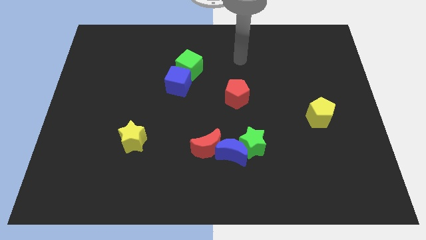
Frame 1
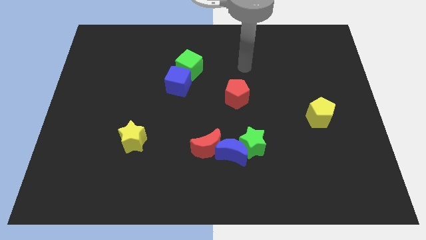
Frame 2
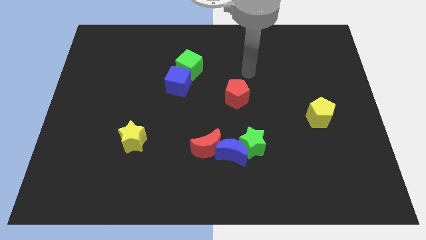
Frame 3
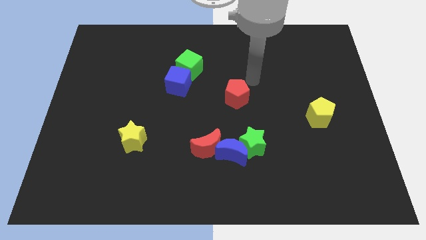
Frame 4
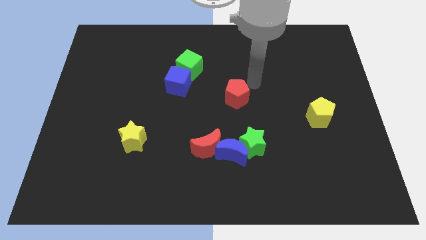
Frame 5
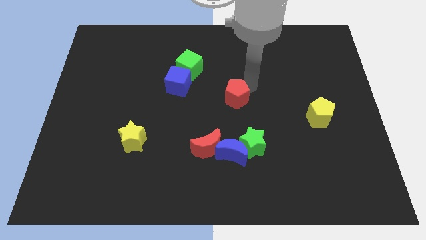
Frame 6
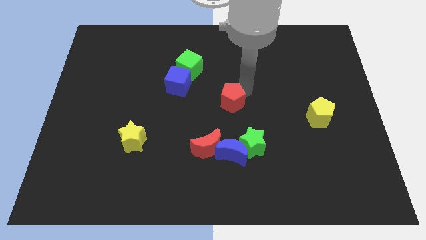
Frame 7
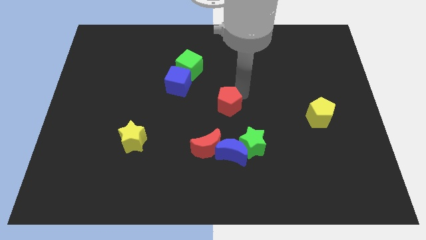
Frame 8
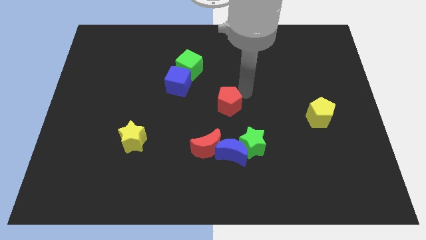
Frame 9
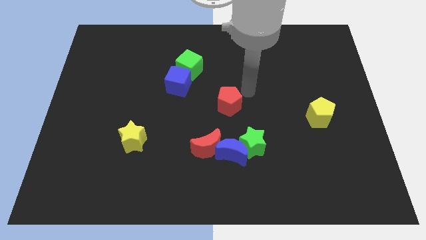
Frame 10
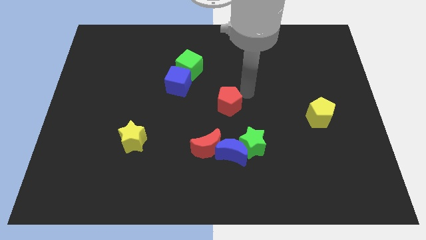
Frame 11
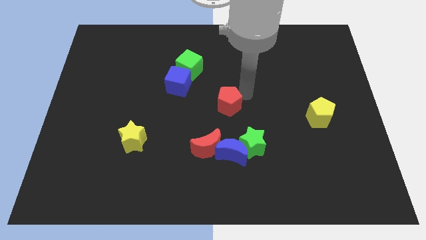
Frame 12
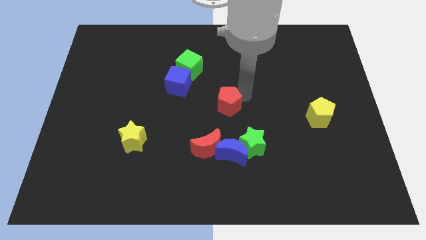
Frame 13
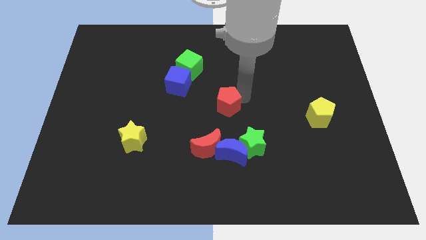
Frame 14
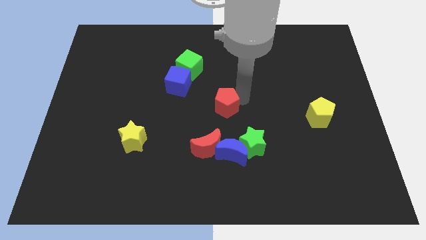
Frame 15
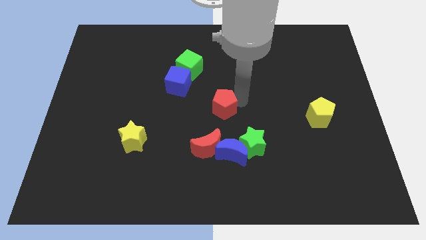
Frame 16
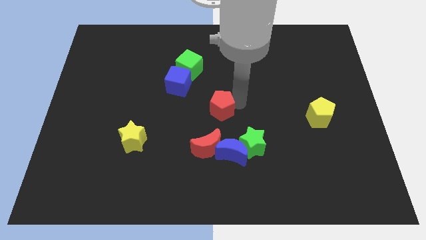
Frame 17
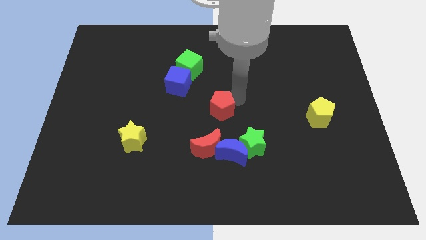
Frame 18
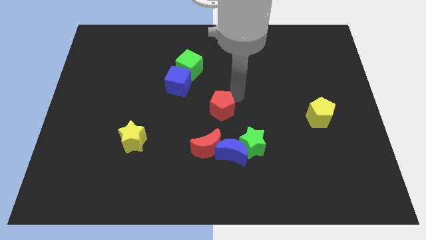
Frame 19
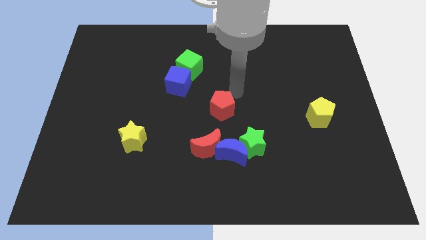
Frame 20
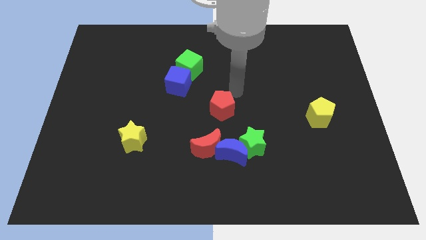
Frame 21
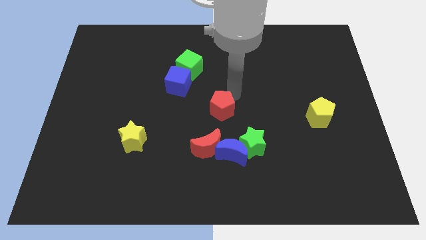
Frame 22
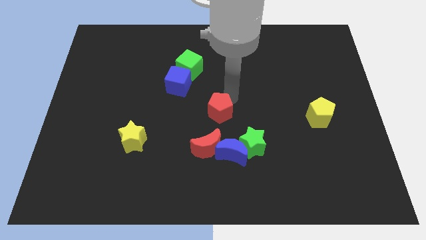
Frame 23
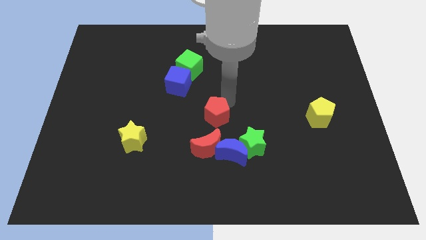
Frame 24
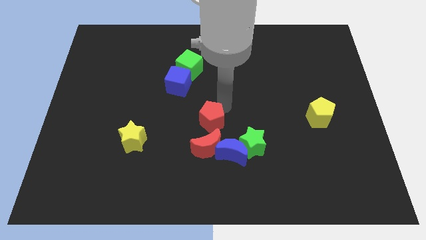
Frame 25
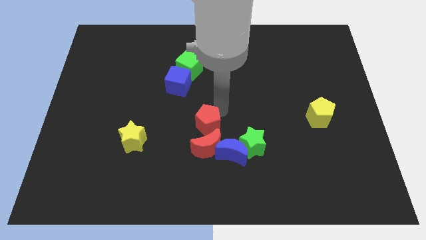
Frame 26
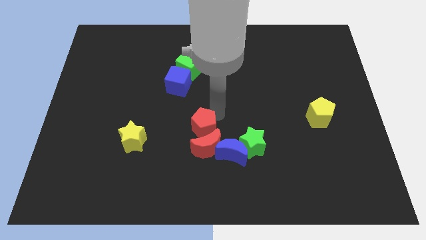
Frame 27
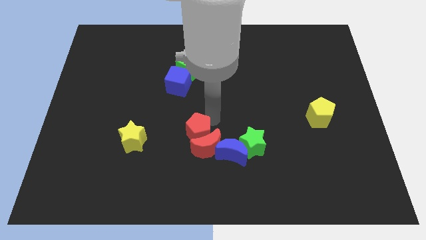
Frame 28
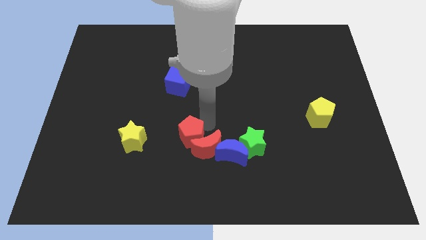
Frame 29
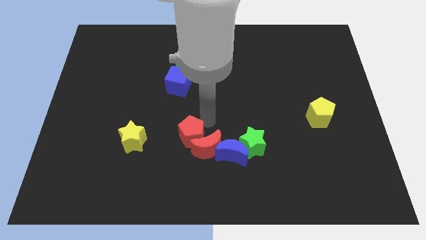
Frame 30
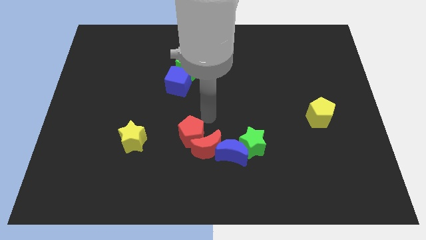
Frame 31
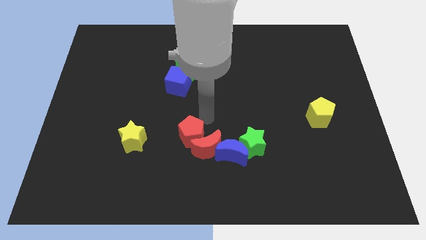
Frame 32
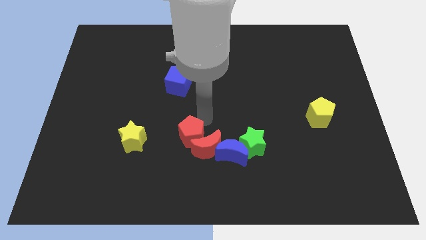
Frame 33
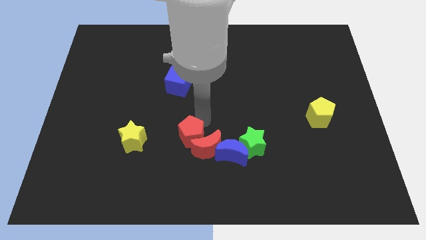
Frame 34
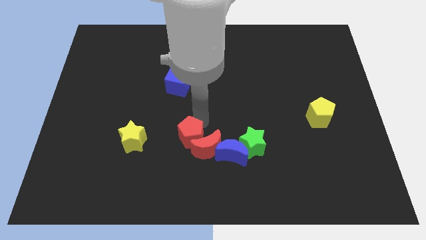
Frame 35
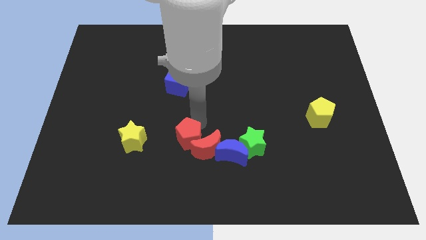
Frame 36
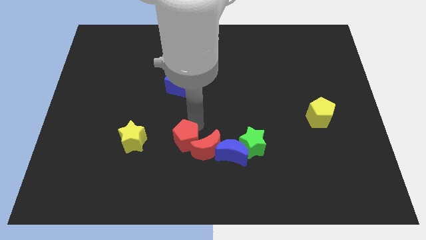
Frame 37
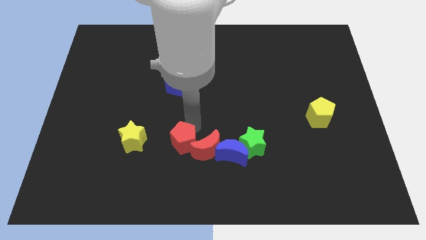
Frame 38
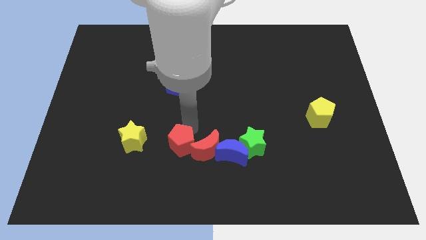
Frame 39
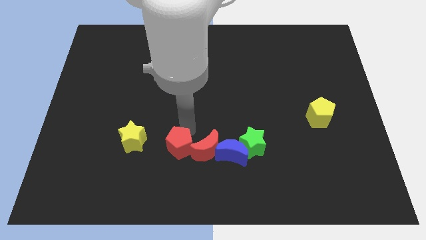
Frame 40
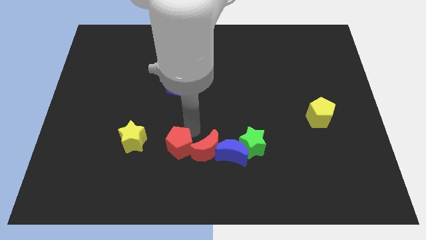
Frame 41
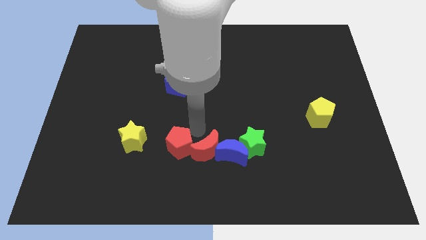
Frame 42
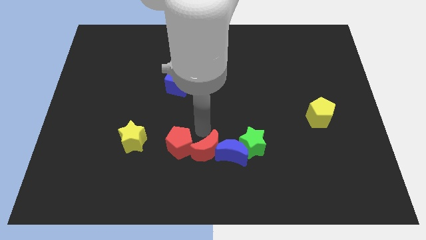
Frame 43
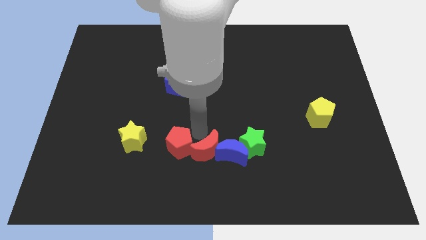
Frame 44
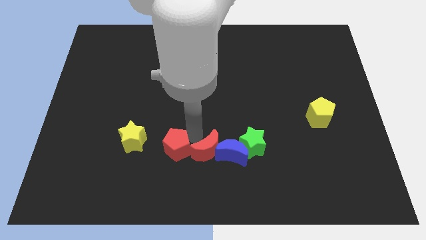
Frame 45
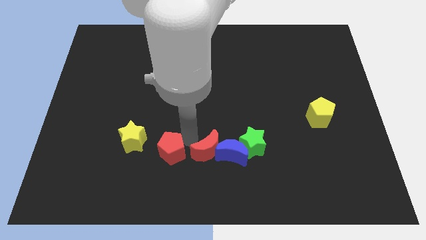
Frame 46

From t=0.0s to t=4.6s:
slide the red pentagon down and to the left

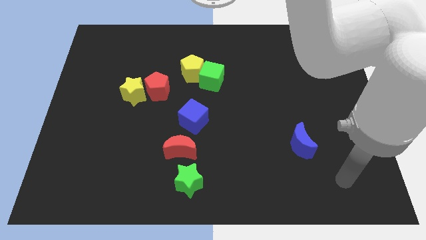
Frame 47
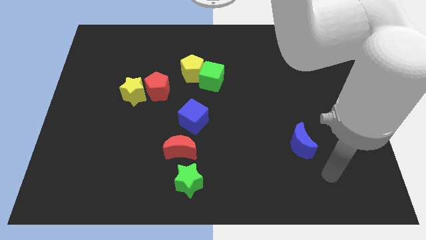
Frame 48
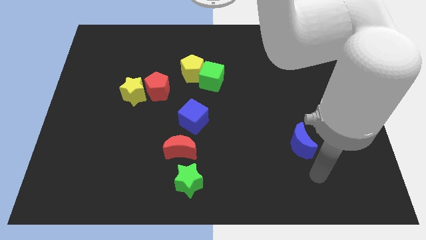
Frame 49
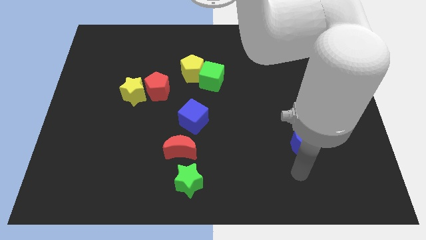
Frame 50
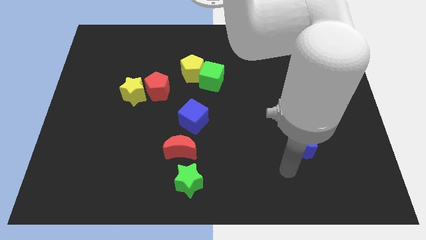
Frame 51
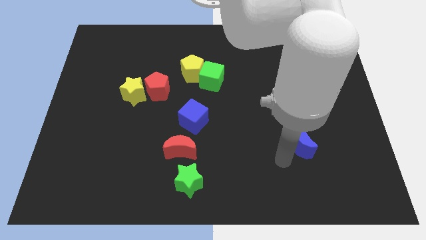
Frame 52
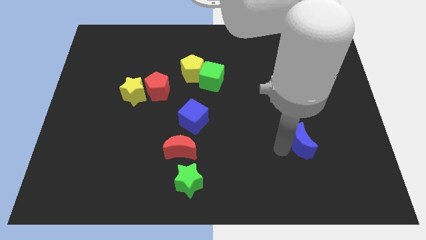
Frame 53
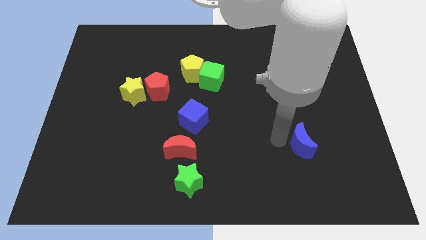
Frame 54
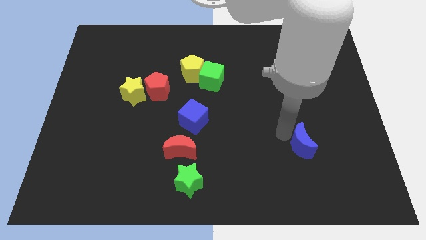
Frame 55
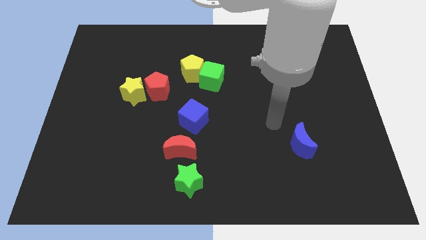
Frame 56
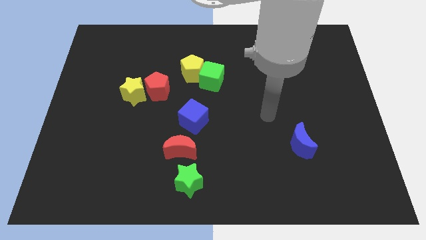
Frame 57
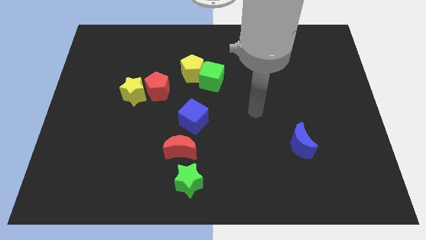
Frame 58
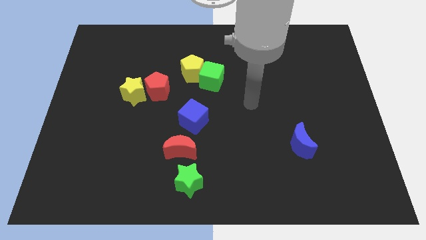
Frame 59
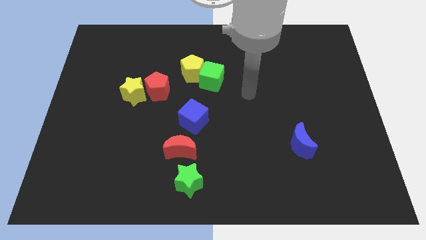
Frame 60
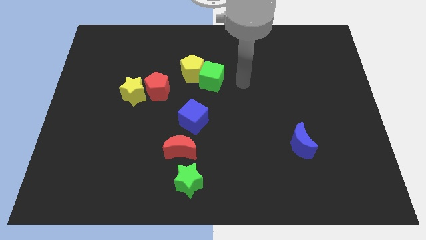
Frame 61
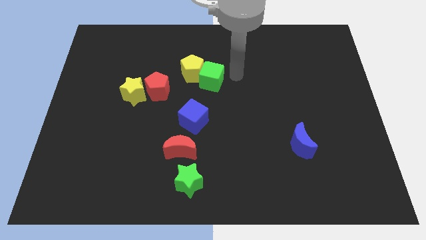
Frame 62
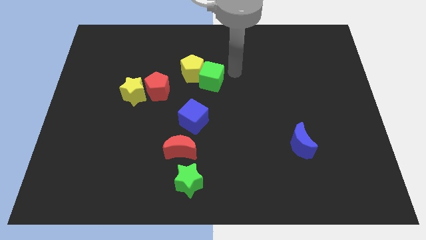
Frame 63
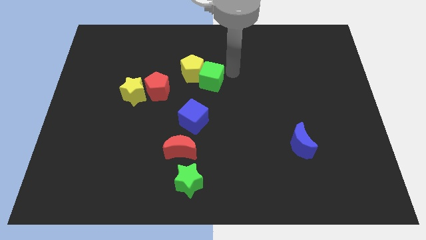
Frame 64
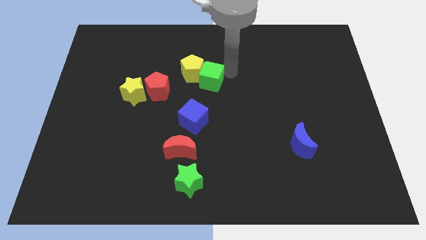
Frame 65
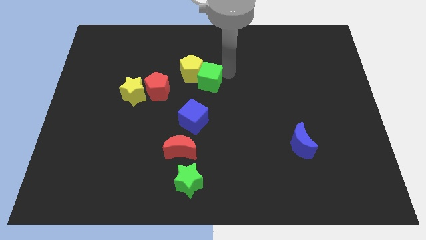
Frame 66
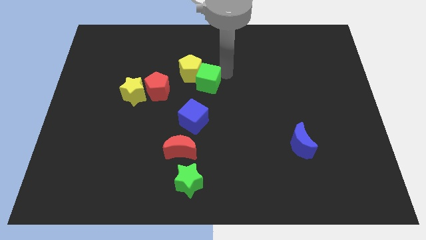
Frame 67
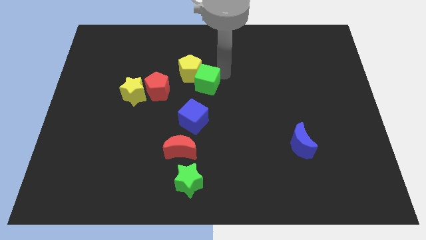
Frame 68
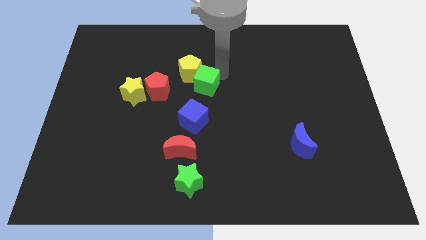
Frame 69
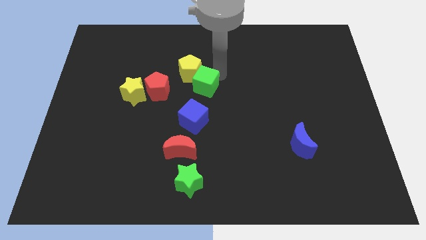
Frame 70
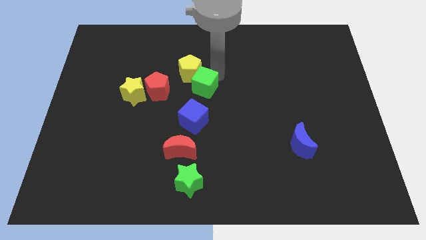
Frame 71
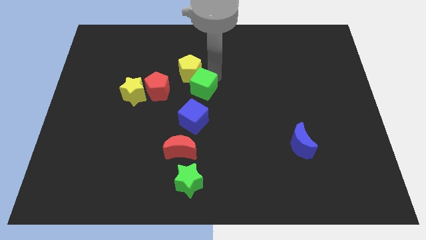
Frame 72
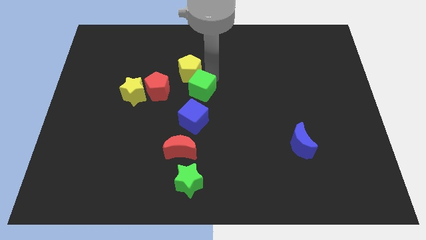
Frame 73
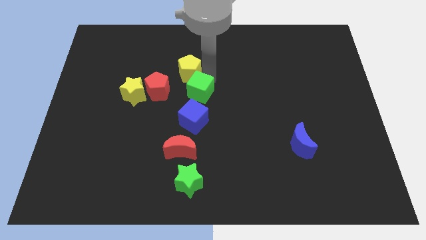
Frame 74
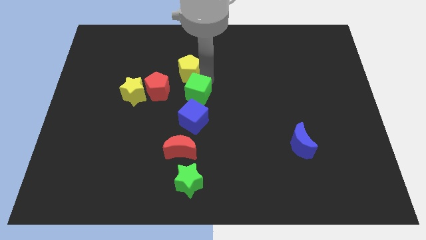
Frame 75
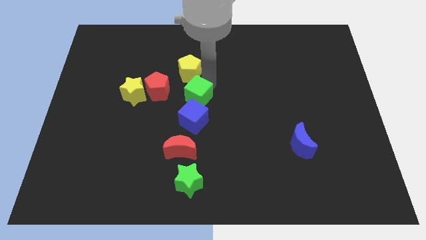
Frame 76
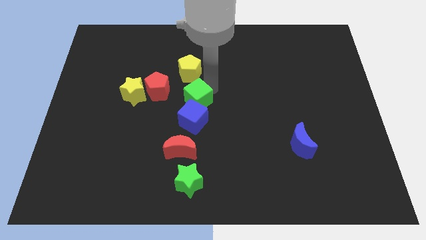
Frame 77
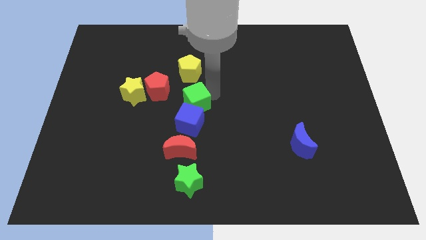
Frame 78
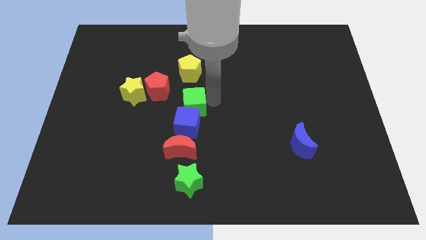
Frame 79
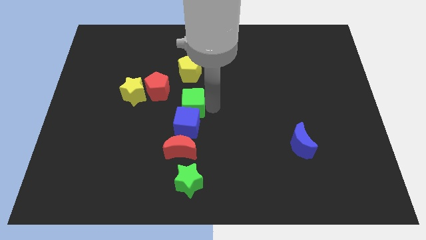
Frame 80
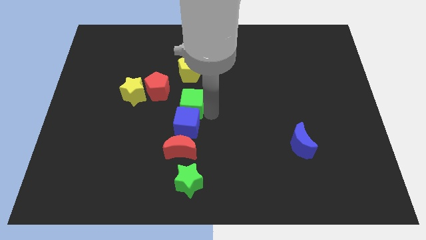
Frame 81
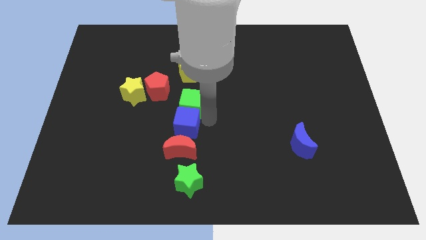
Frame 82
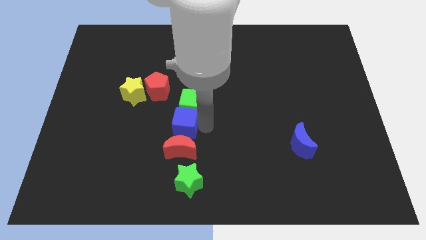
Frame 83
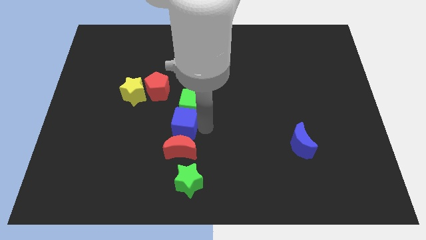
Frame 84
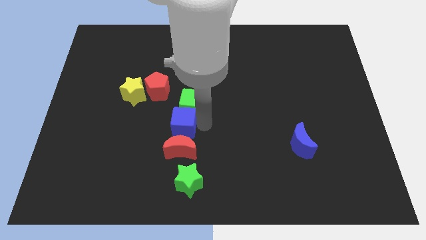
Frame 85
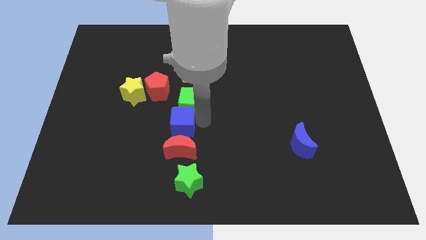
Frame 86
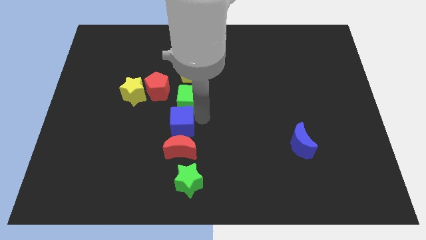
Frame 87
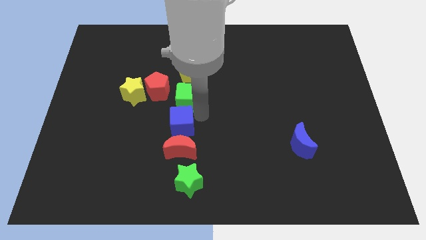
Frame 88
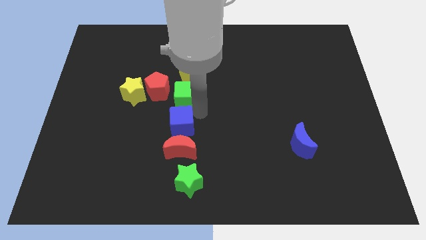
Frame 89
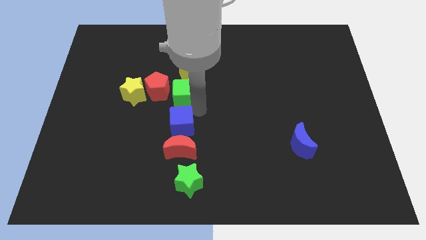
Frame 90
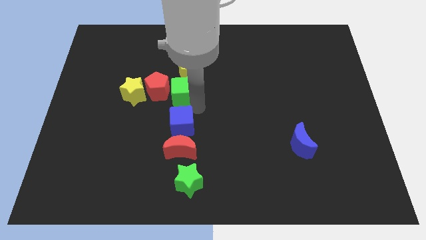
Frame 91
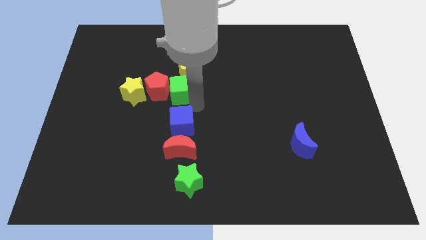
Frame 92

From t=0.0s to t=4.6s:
push the green cube to the left slightly
